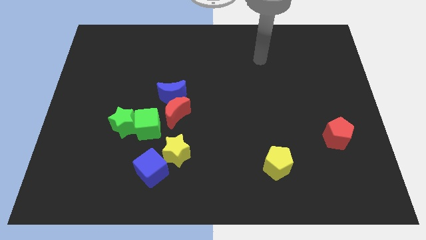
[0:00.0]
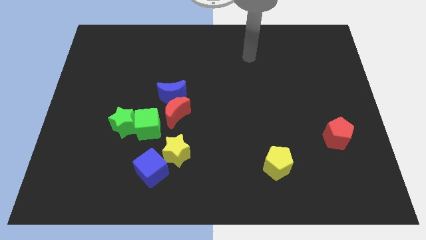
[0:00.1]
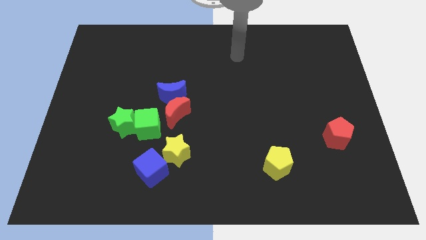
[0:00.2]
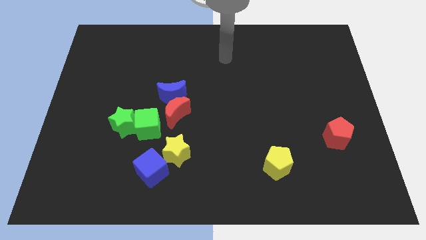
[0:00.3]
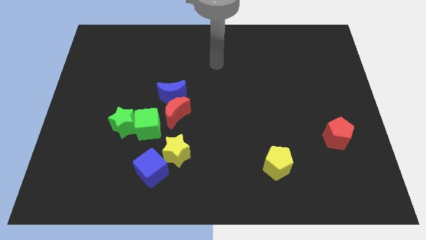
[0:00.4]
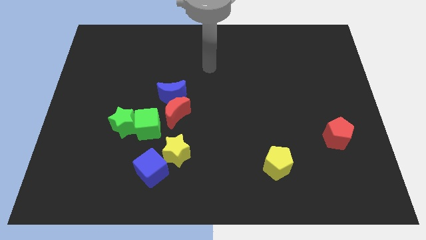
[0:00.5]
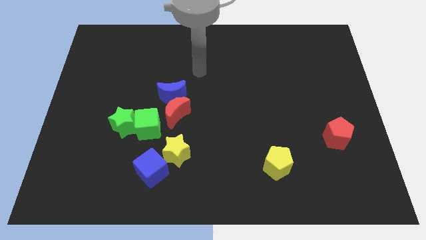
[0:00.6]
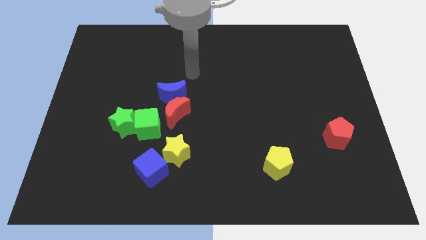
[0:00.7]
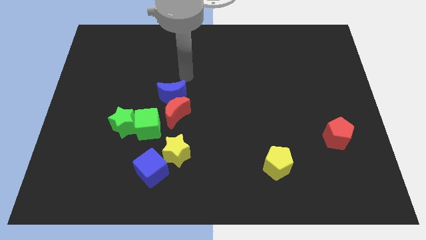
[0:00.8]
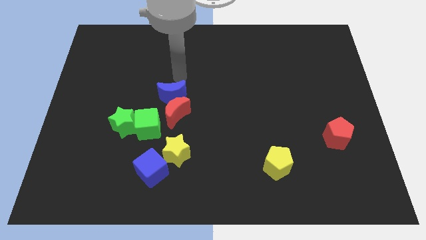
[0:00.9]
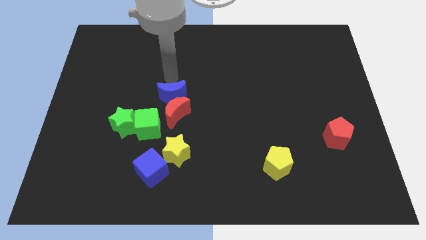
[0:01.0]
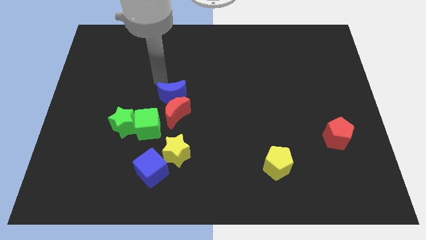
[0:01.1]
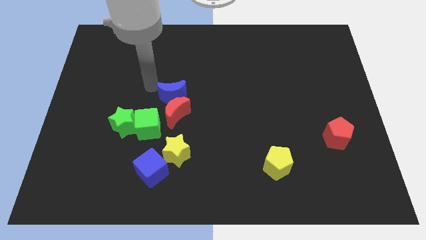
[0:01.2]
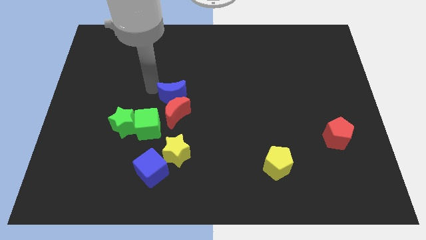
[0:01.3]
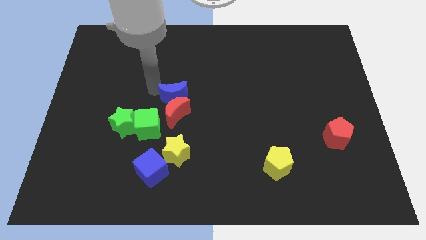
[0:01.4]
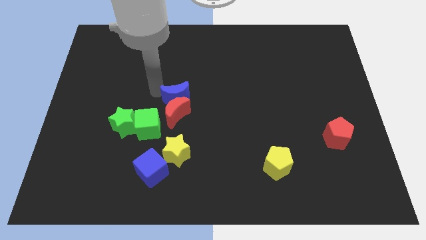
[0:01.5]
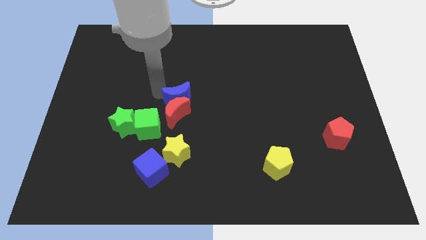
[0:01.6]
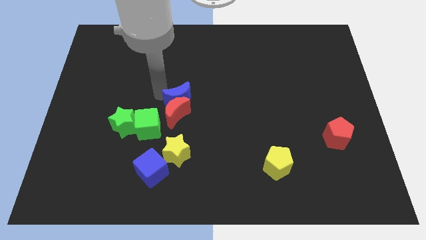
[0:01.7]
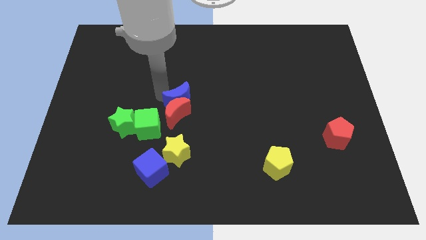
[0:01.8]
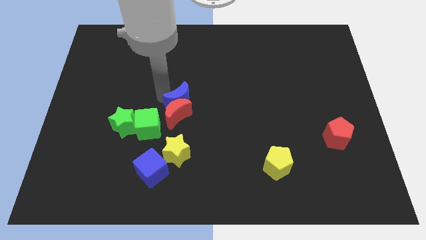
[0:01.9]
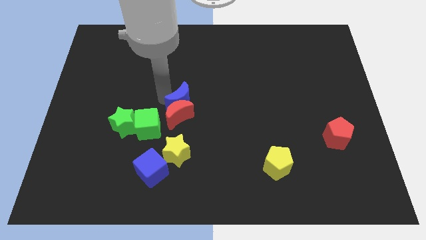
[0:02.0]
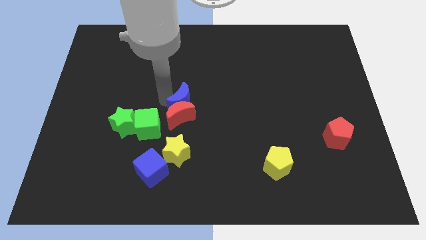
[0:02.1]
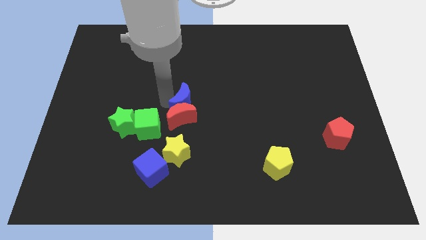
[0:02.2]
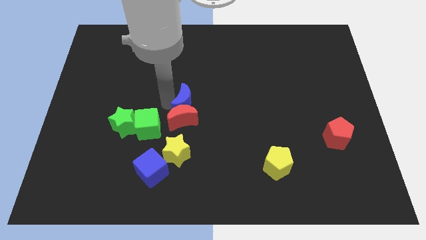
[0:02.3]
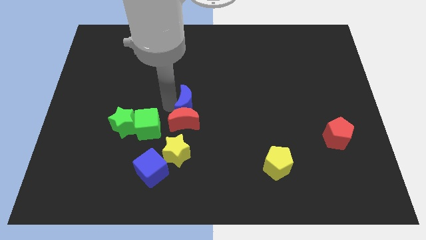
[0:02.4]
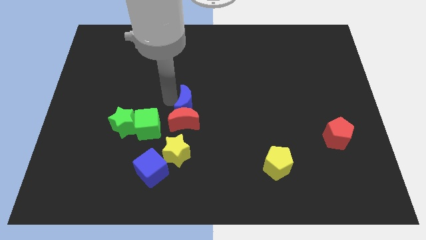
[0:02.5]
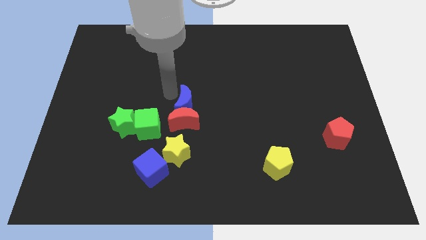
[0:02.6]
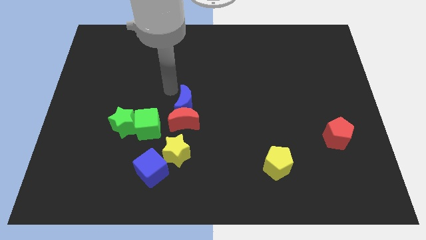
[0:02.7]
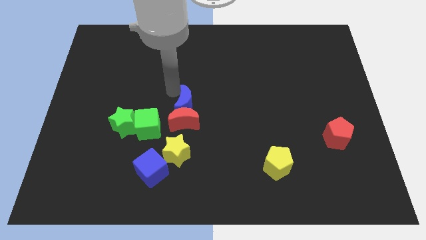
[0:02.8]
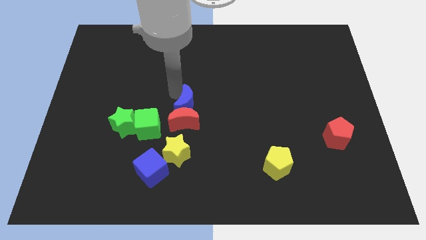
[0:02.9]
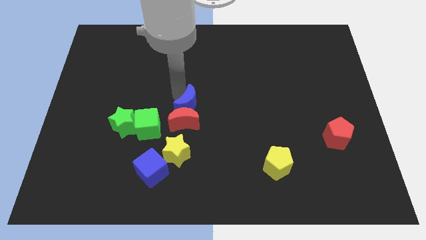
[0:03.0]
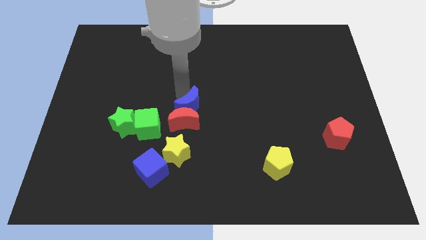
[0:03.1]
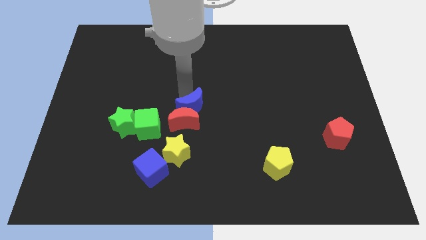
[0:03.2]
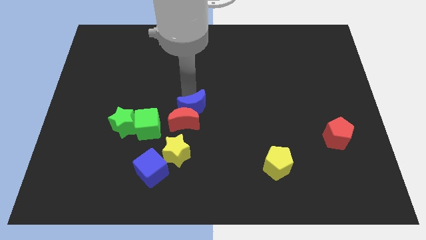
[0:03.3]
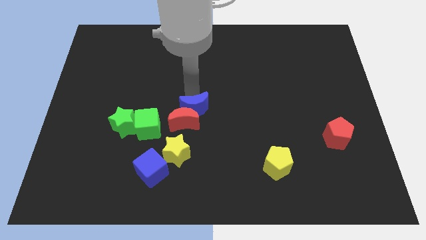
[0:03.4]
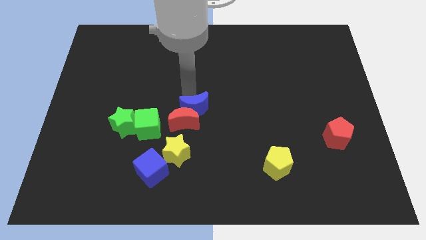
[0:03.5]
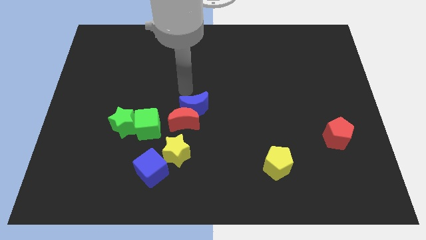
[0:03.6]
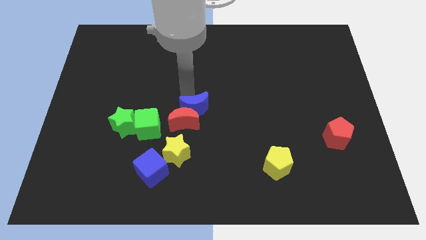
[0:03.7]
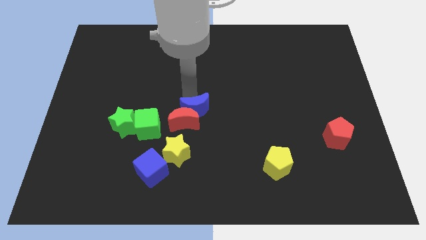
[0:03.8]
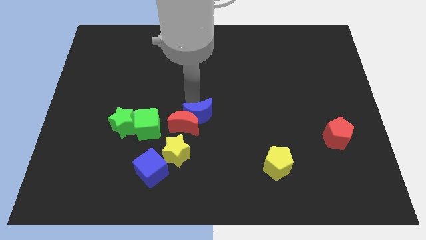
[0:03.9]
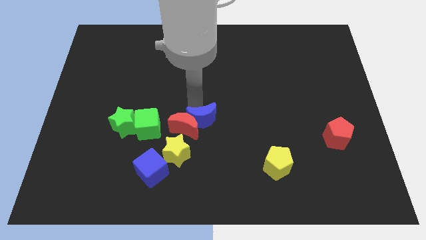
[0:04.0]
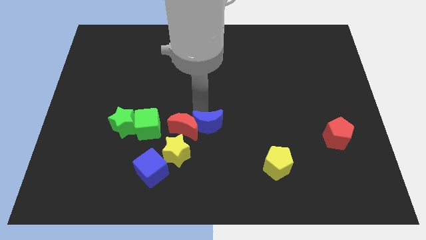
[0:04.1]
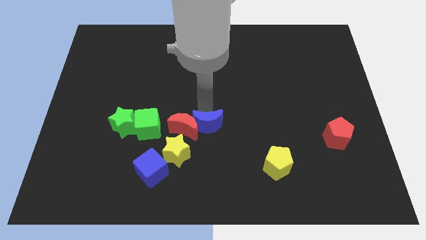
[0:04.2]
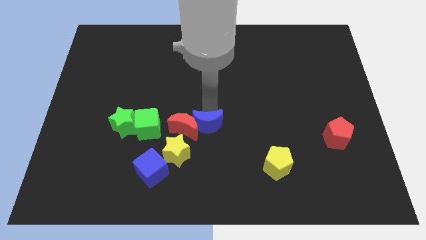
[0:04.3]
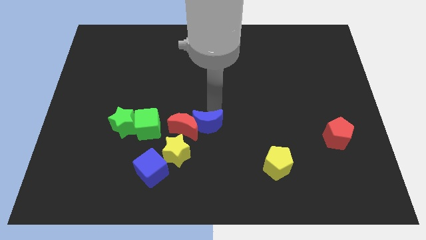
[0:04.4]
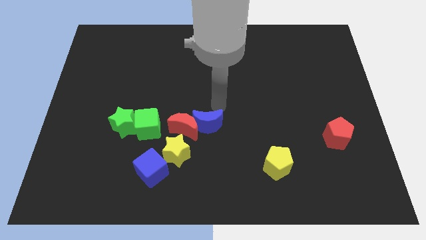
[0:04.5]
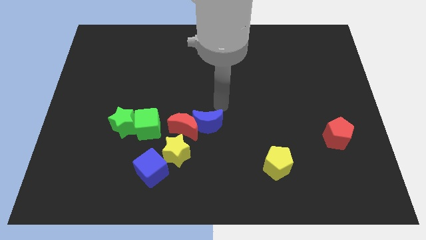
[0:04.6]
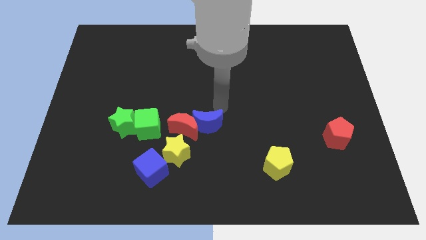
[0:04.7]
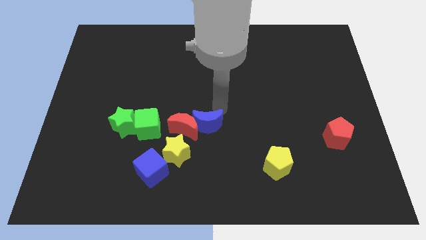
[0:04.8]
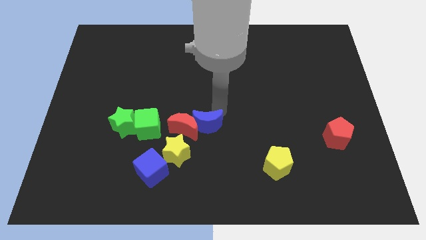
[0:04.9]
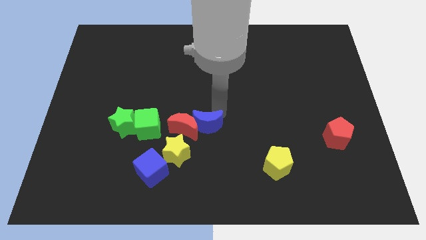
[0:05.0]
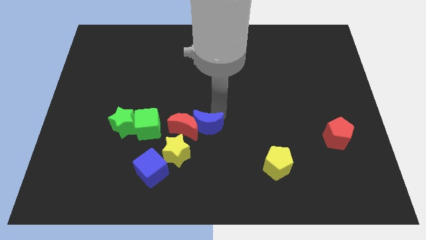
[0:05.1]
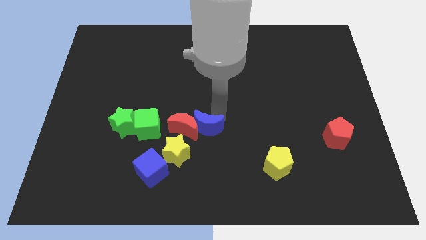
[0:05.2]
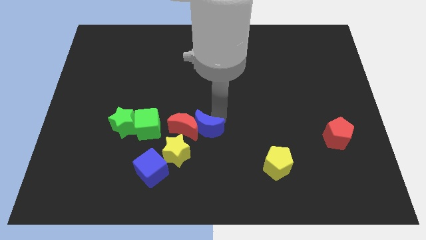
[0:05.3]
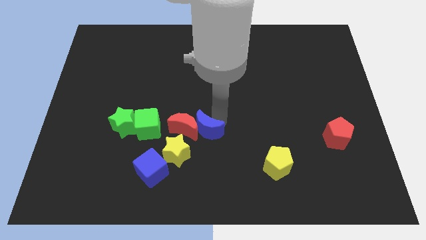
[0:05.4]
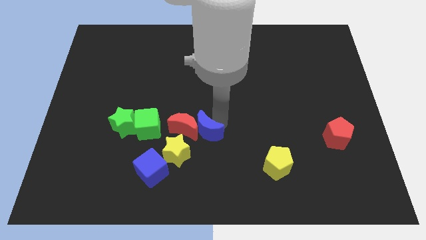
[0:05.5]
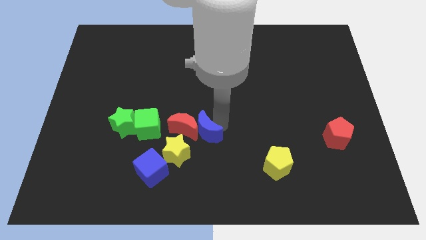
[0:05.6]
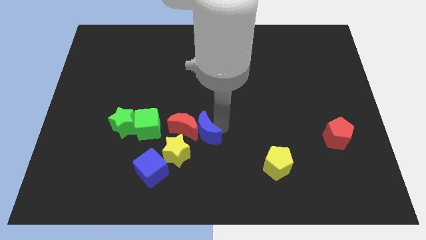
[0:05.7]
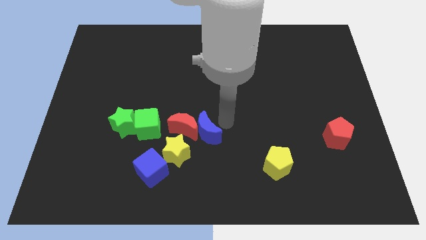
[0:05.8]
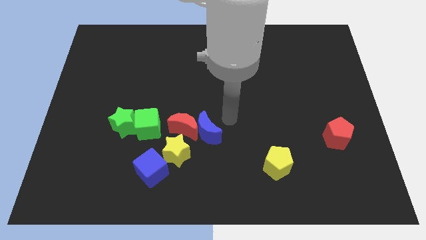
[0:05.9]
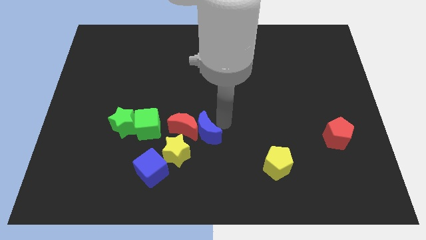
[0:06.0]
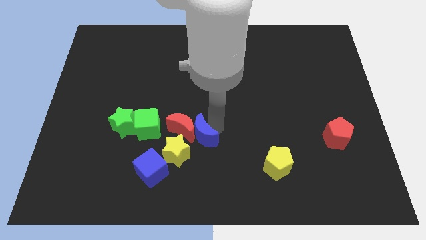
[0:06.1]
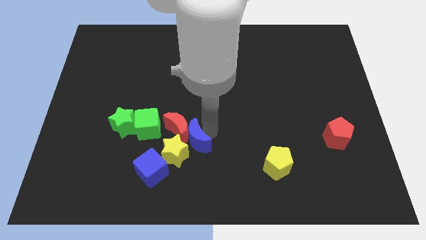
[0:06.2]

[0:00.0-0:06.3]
move the blue moon towards the yellow star

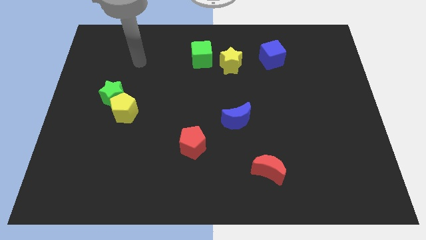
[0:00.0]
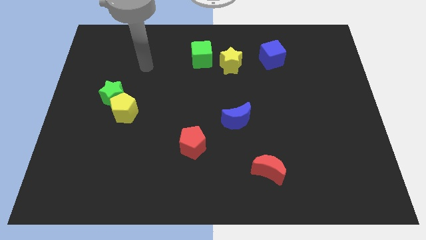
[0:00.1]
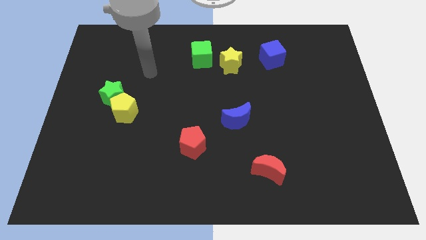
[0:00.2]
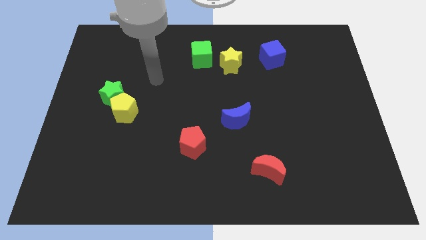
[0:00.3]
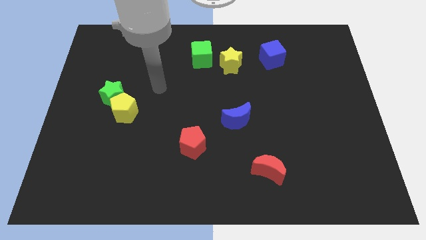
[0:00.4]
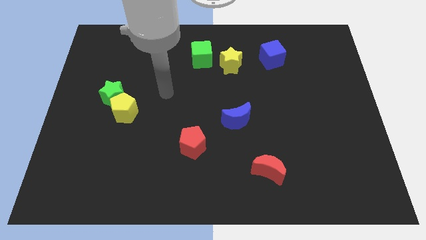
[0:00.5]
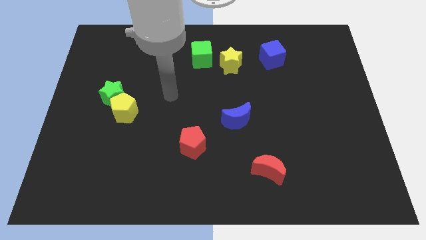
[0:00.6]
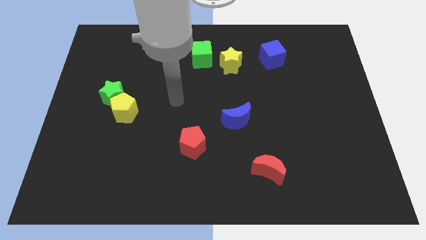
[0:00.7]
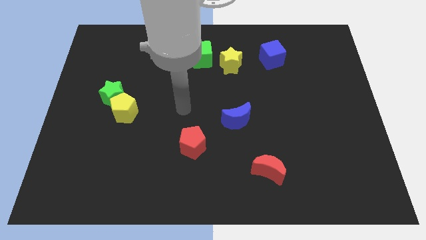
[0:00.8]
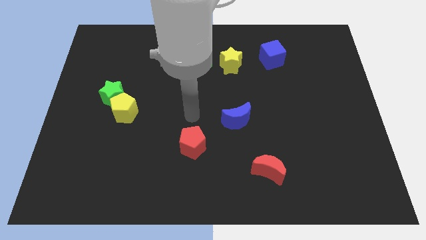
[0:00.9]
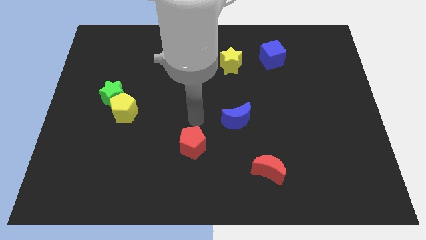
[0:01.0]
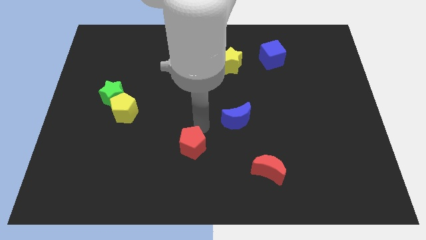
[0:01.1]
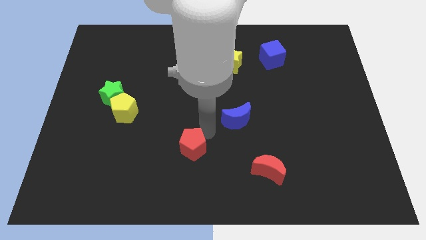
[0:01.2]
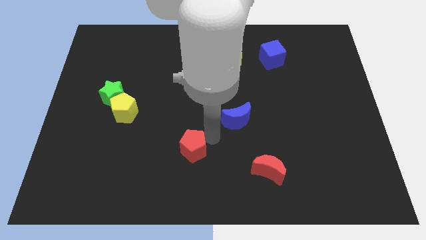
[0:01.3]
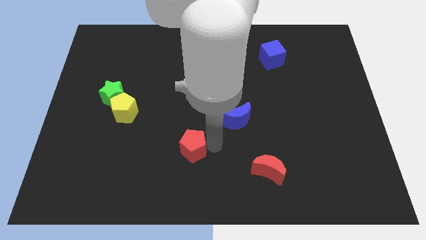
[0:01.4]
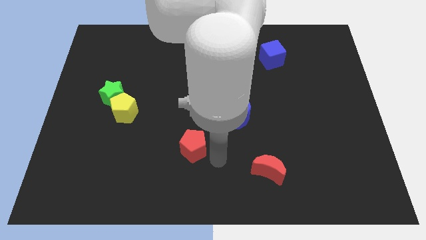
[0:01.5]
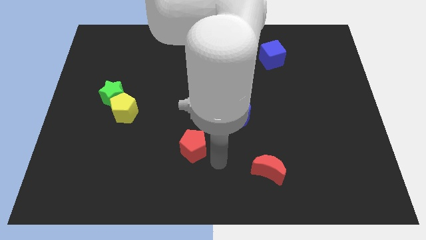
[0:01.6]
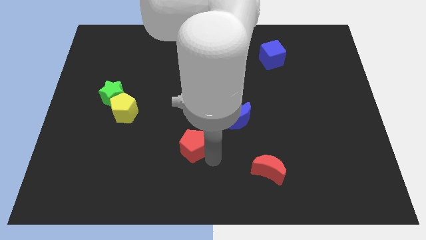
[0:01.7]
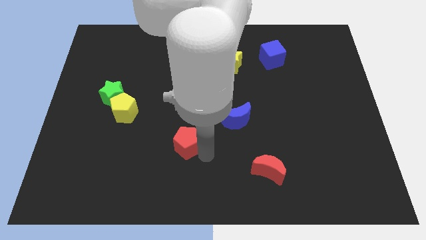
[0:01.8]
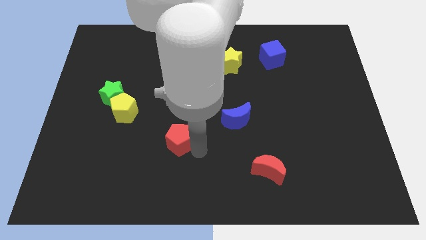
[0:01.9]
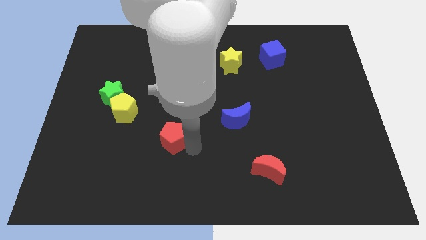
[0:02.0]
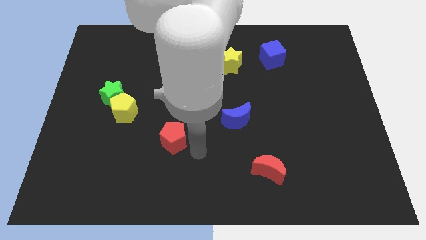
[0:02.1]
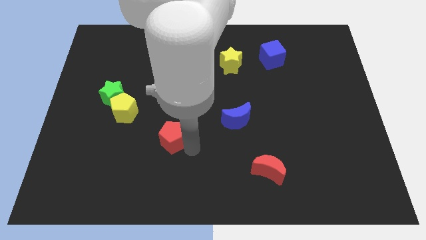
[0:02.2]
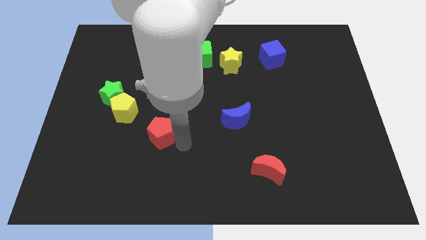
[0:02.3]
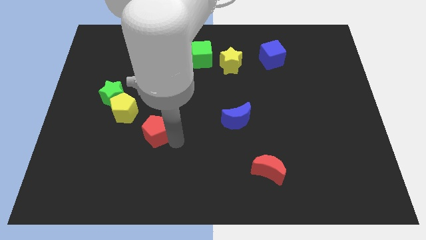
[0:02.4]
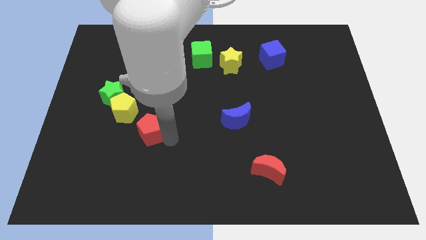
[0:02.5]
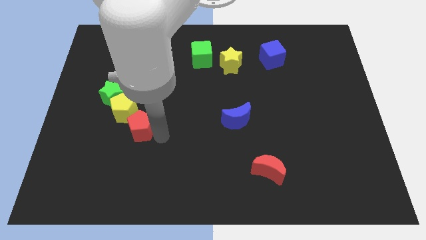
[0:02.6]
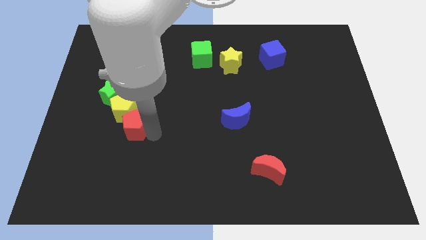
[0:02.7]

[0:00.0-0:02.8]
put the red pentagon close to the yellow pentagon
